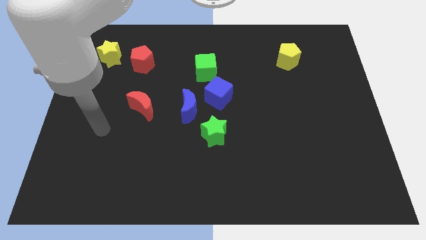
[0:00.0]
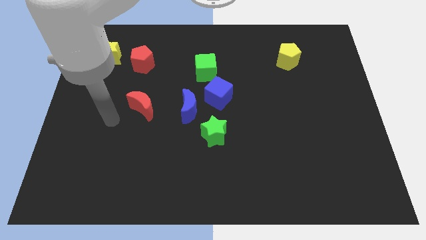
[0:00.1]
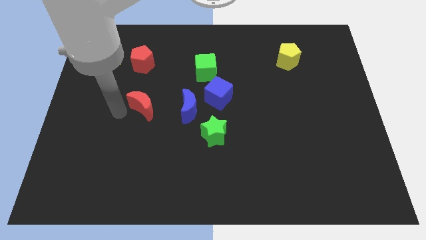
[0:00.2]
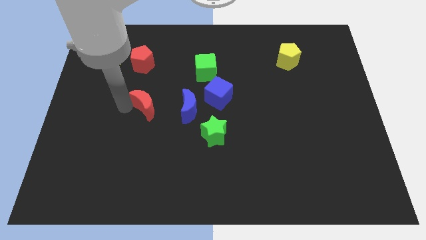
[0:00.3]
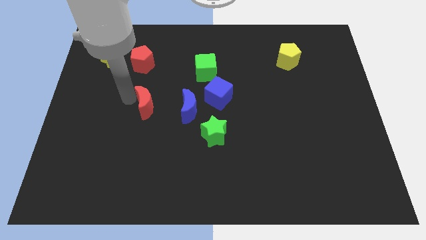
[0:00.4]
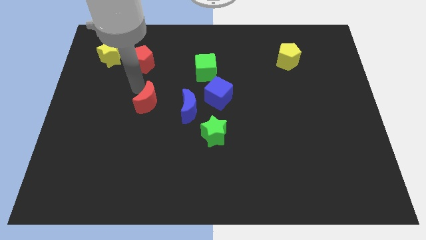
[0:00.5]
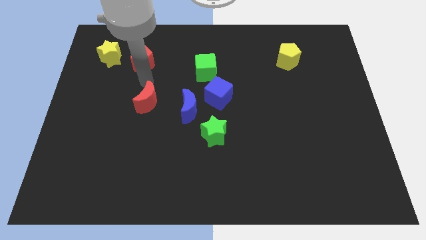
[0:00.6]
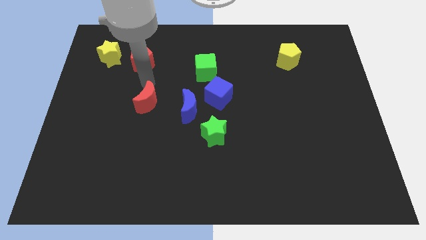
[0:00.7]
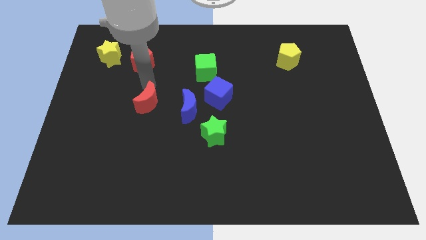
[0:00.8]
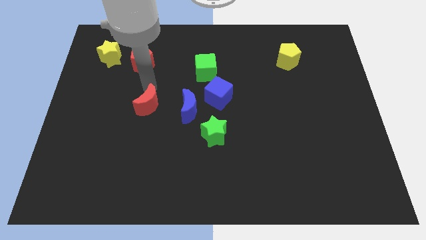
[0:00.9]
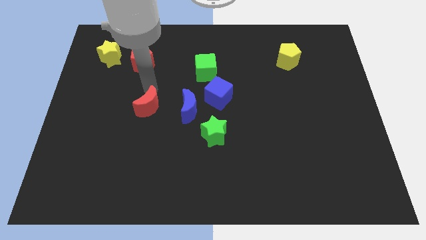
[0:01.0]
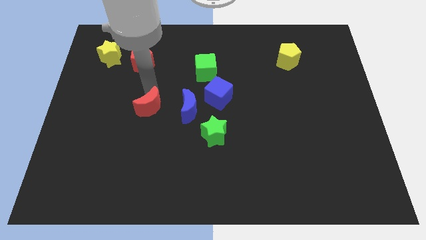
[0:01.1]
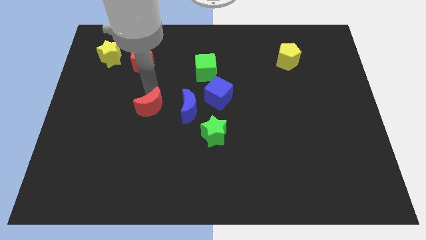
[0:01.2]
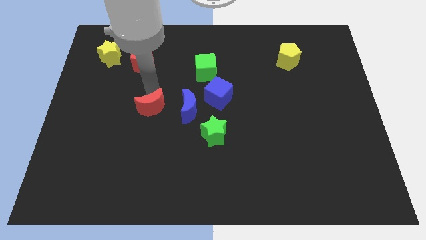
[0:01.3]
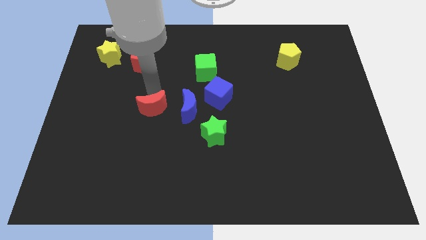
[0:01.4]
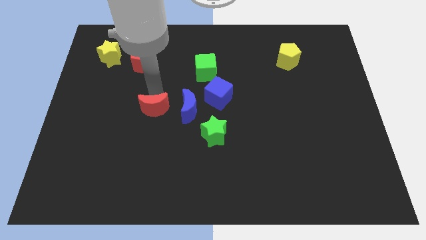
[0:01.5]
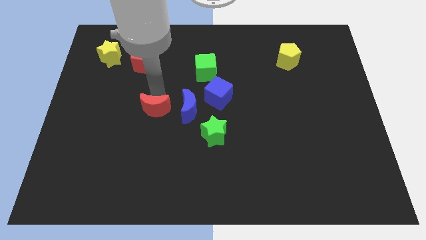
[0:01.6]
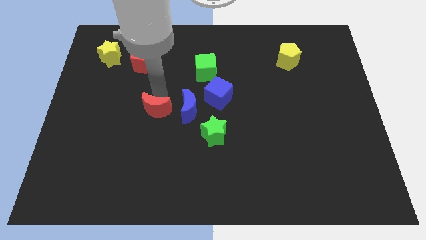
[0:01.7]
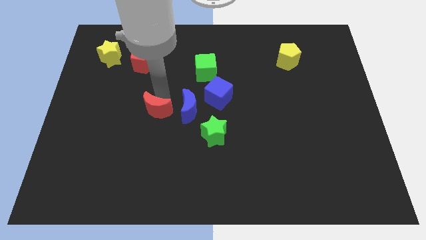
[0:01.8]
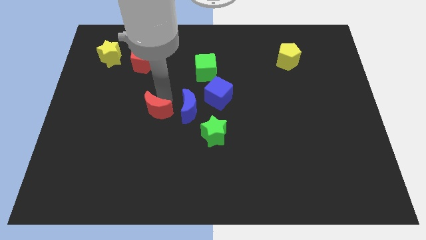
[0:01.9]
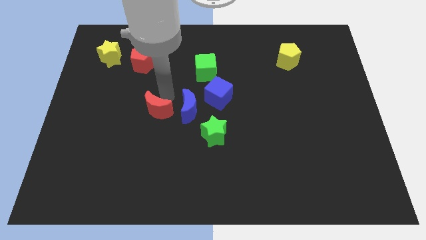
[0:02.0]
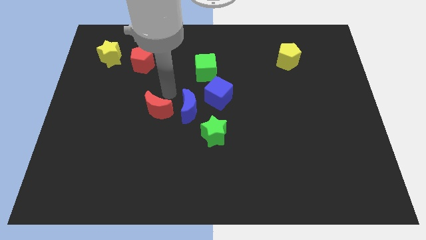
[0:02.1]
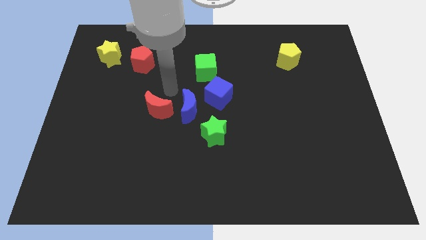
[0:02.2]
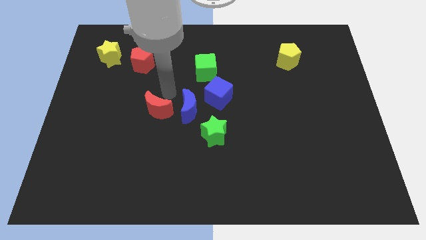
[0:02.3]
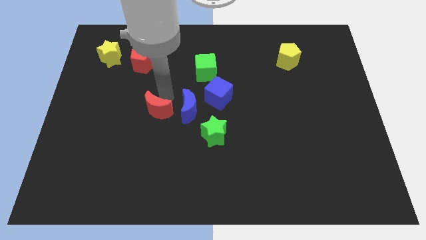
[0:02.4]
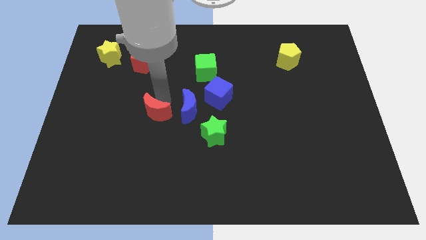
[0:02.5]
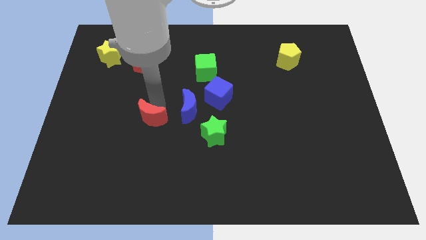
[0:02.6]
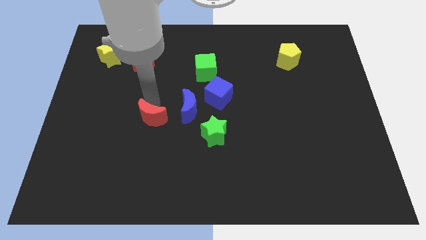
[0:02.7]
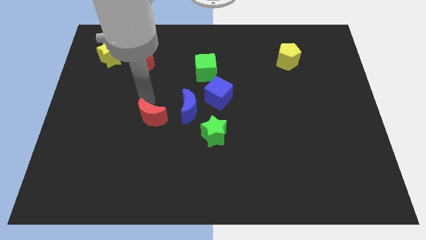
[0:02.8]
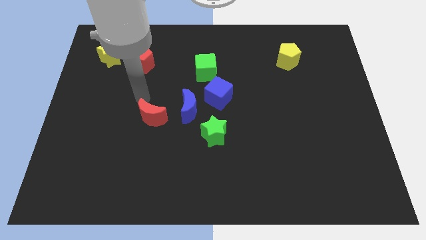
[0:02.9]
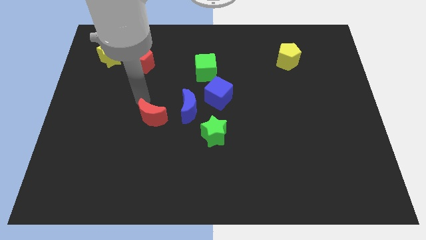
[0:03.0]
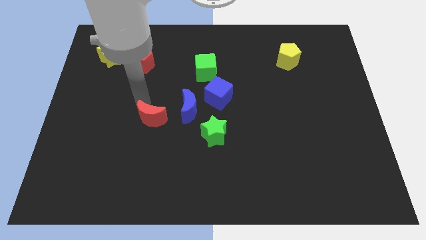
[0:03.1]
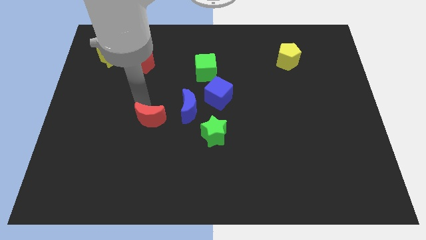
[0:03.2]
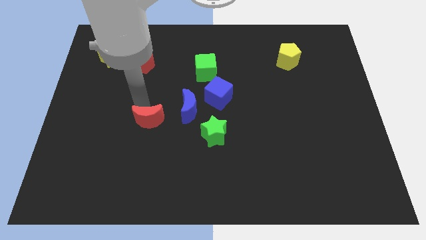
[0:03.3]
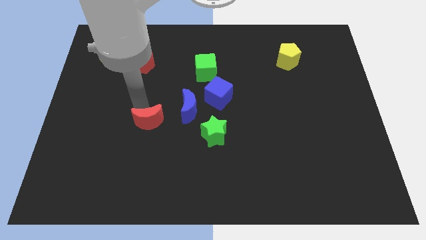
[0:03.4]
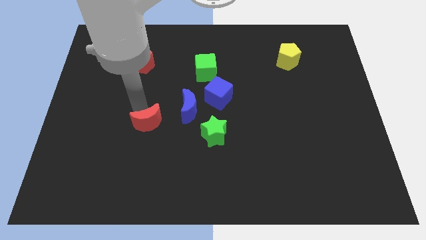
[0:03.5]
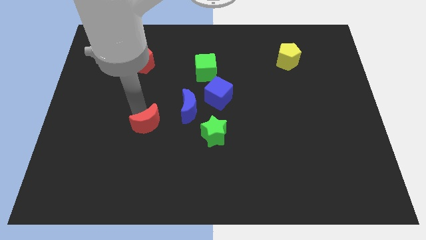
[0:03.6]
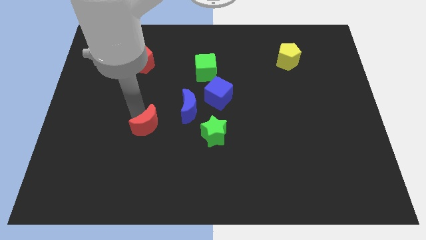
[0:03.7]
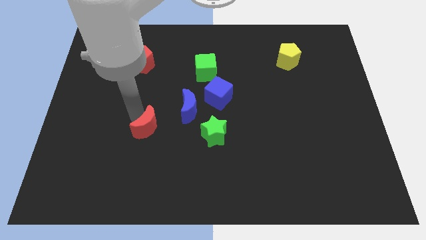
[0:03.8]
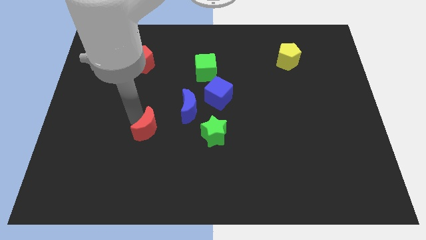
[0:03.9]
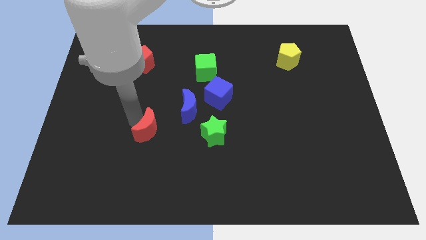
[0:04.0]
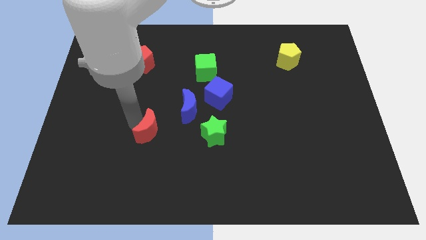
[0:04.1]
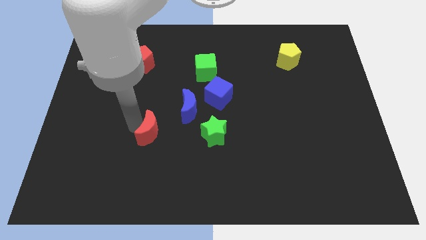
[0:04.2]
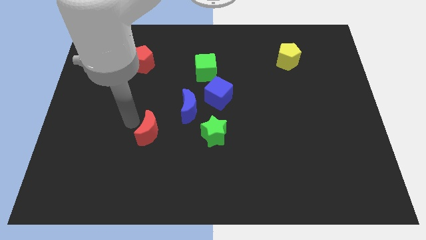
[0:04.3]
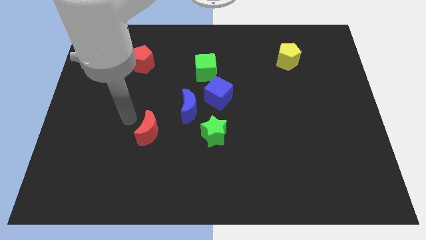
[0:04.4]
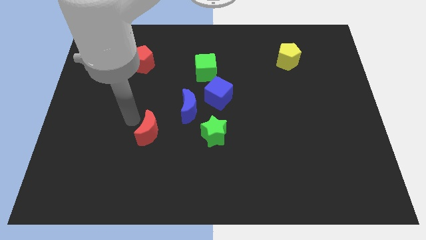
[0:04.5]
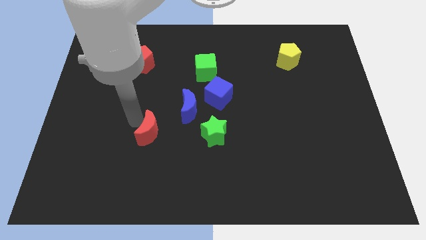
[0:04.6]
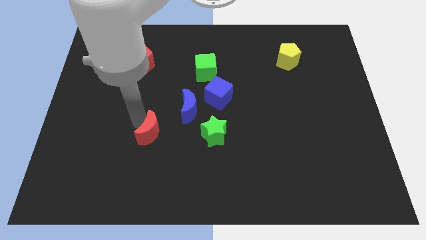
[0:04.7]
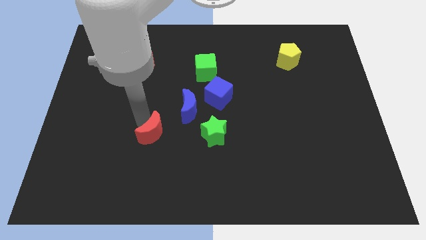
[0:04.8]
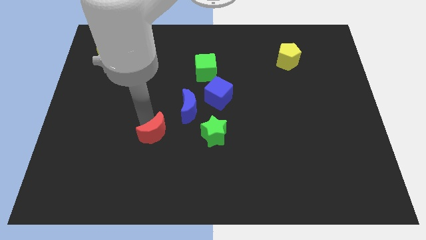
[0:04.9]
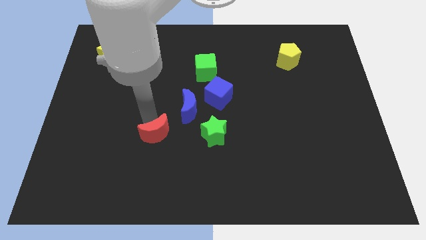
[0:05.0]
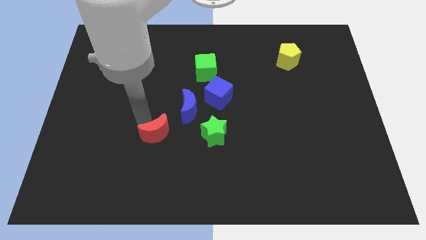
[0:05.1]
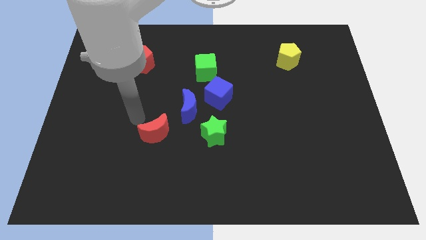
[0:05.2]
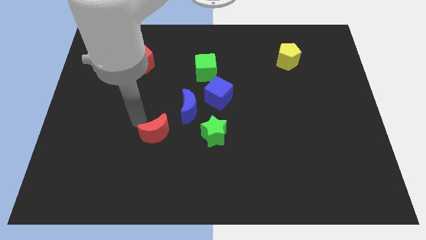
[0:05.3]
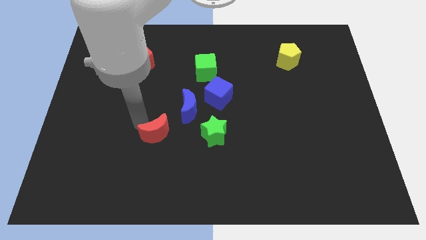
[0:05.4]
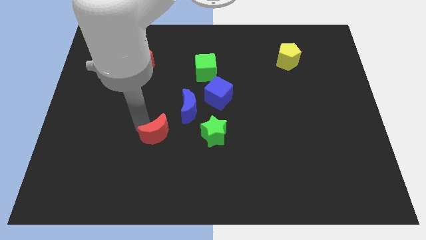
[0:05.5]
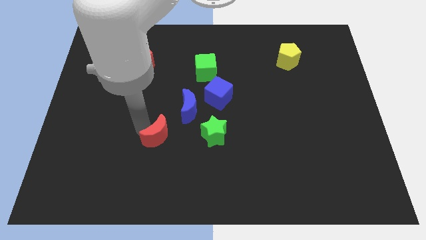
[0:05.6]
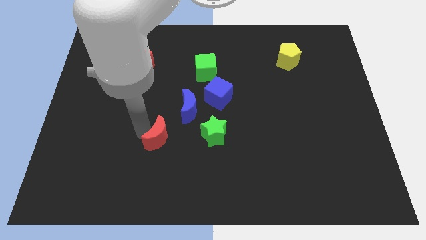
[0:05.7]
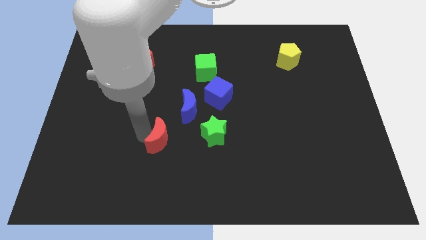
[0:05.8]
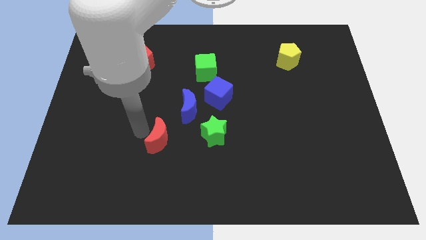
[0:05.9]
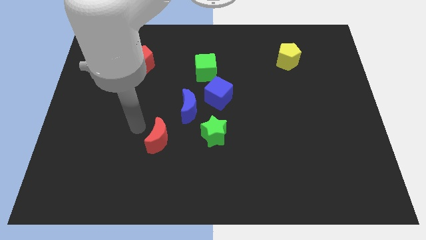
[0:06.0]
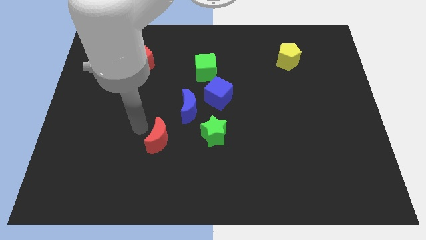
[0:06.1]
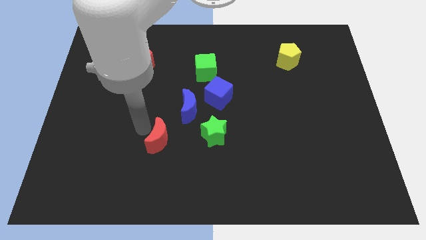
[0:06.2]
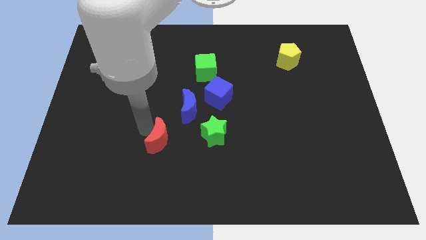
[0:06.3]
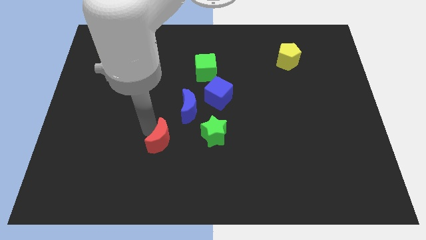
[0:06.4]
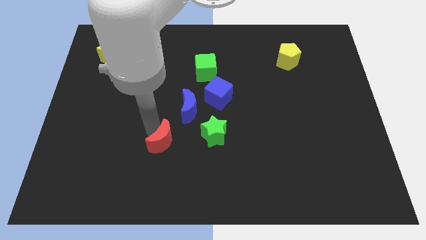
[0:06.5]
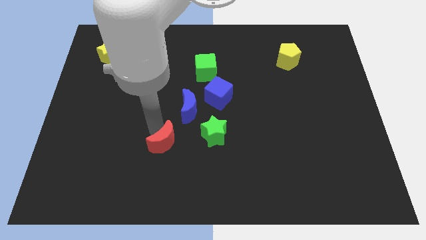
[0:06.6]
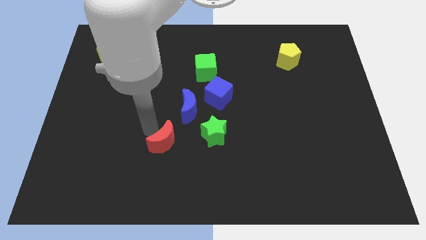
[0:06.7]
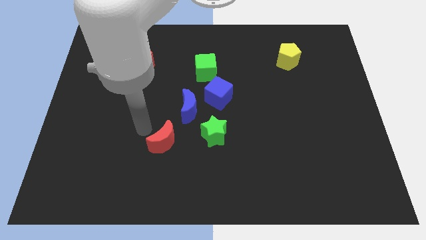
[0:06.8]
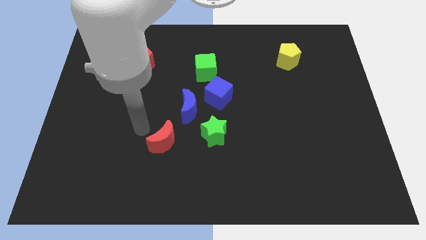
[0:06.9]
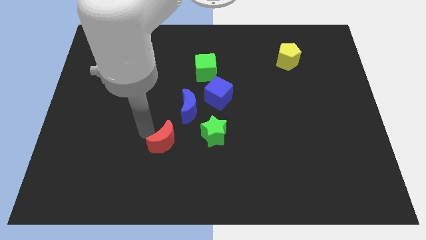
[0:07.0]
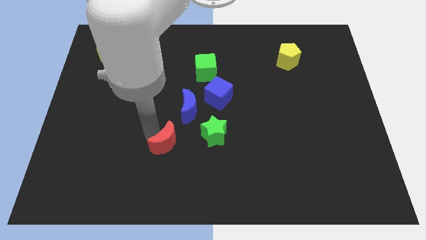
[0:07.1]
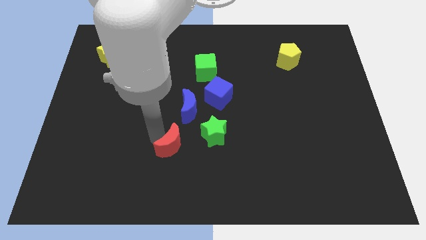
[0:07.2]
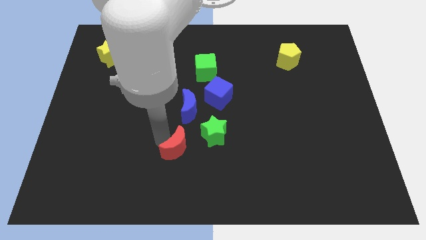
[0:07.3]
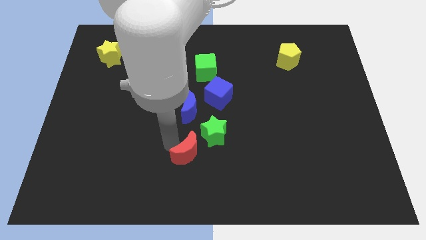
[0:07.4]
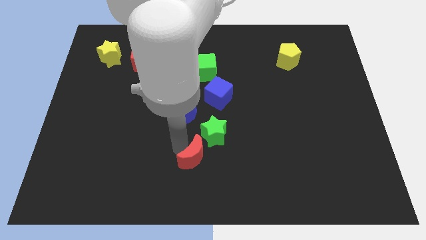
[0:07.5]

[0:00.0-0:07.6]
push the red moon to the bottom side of the green star
